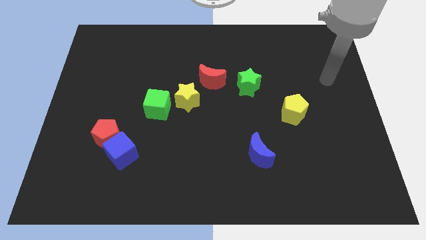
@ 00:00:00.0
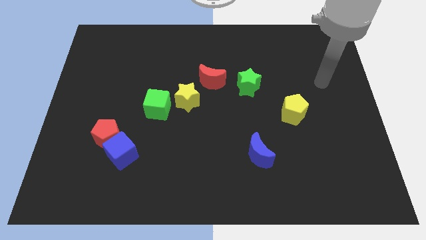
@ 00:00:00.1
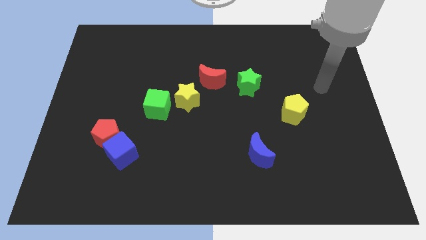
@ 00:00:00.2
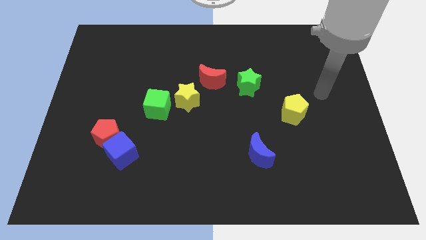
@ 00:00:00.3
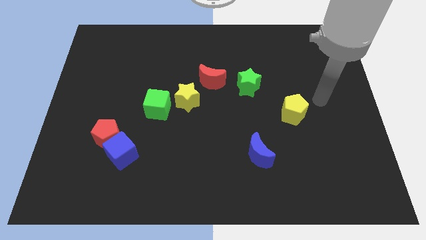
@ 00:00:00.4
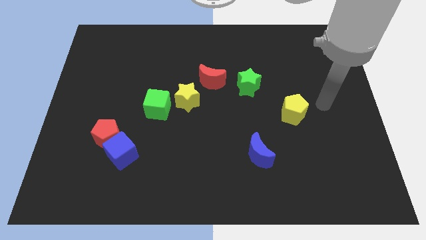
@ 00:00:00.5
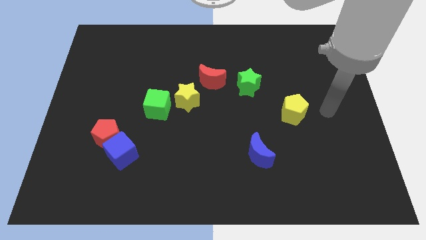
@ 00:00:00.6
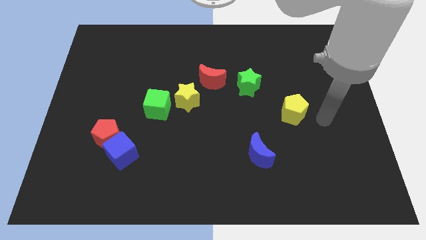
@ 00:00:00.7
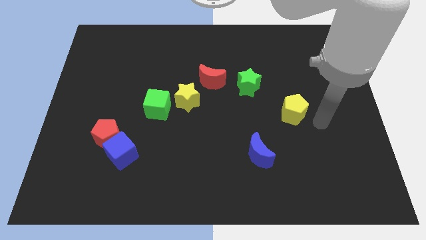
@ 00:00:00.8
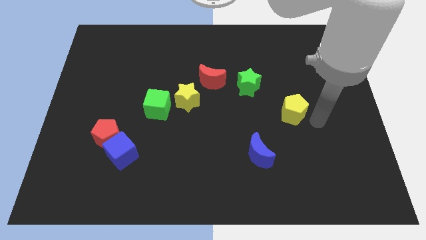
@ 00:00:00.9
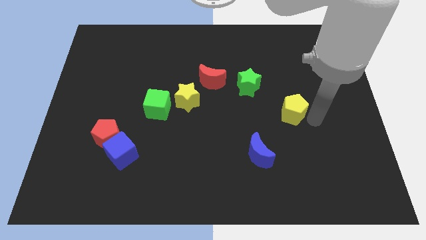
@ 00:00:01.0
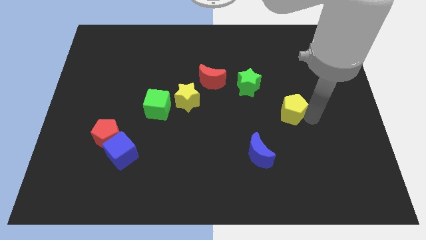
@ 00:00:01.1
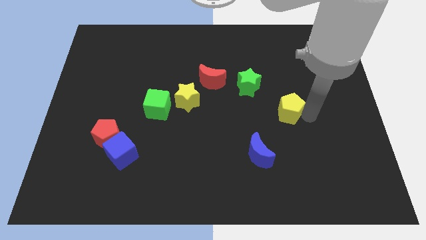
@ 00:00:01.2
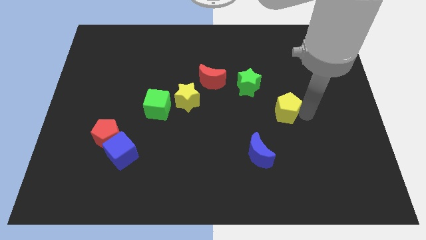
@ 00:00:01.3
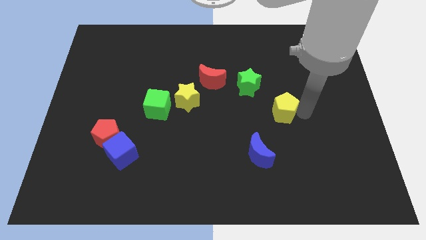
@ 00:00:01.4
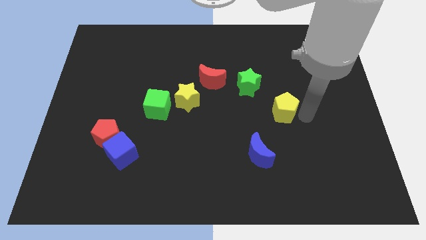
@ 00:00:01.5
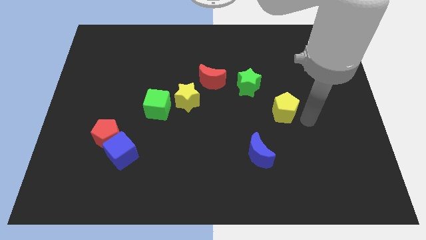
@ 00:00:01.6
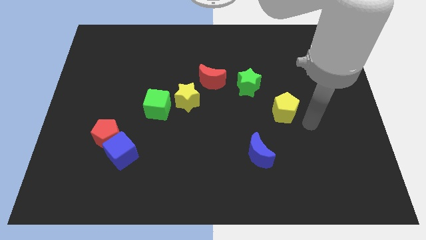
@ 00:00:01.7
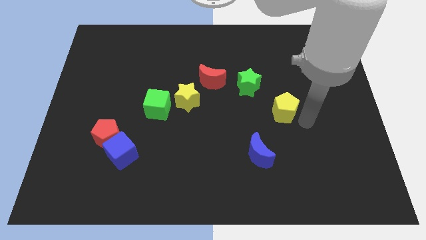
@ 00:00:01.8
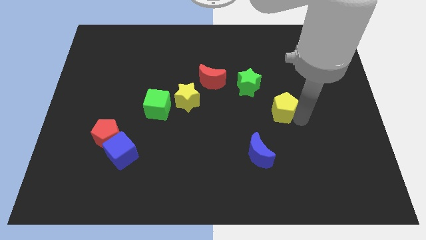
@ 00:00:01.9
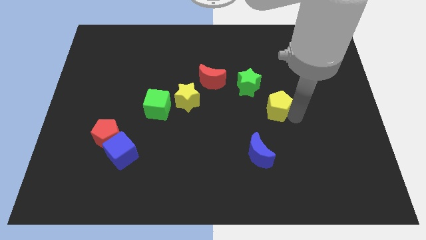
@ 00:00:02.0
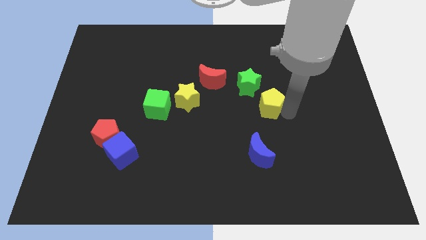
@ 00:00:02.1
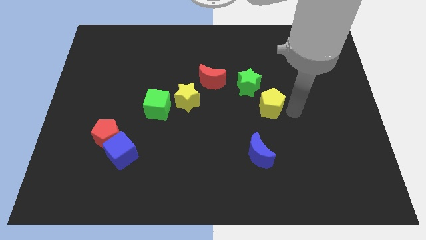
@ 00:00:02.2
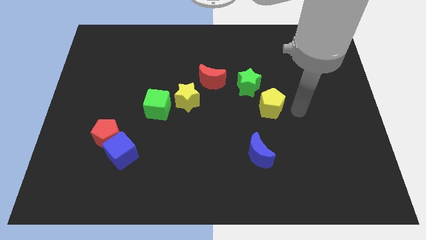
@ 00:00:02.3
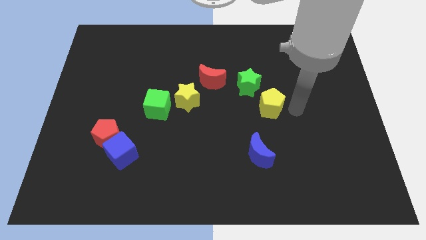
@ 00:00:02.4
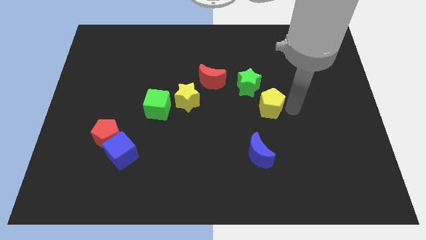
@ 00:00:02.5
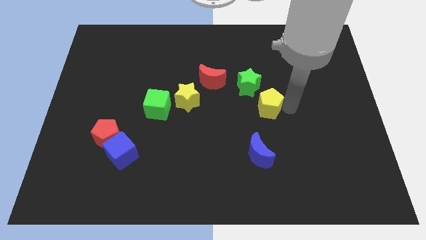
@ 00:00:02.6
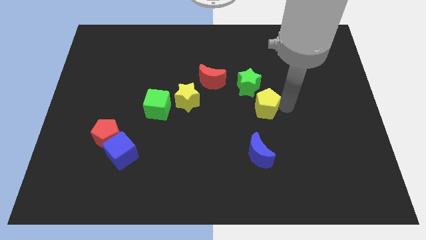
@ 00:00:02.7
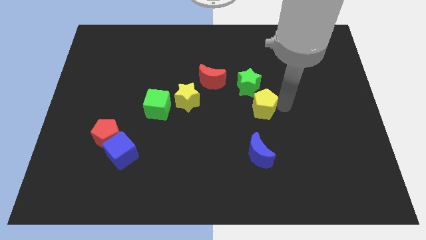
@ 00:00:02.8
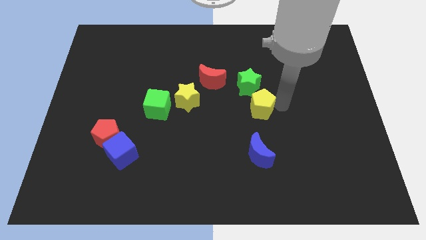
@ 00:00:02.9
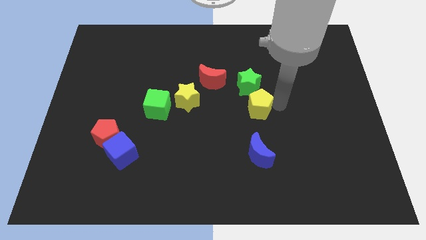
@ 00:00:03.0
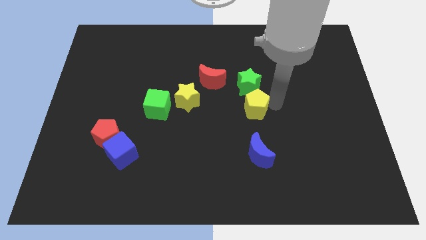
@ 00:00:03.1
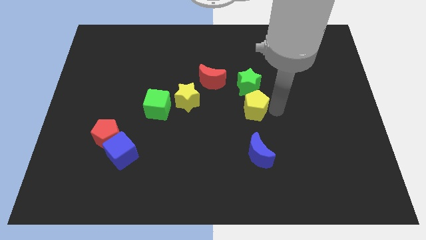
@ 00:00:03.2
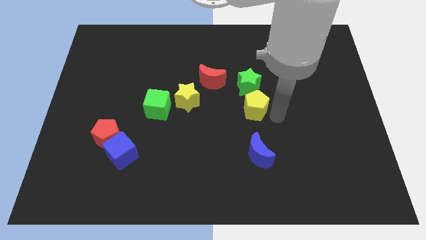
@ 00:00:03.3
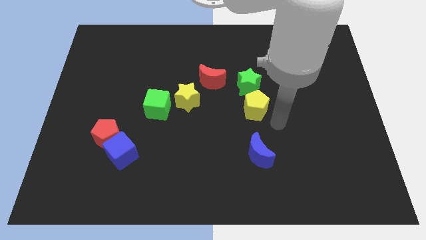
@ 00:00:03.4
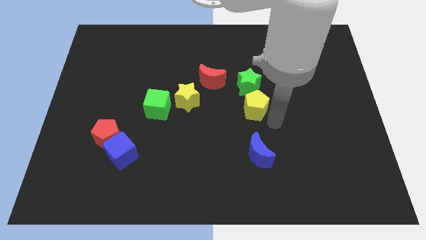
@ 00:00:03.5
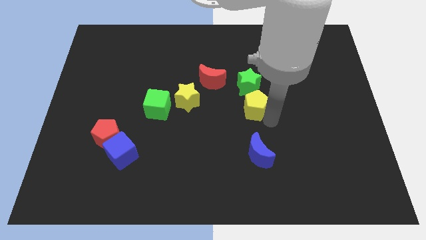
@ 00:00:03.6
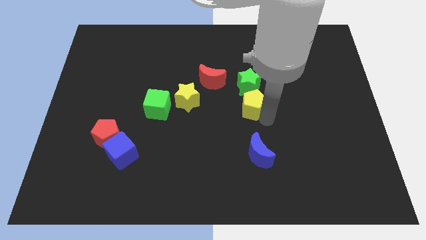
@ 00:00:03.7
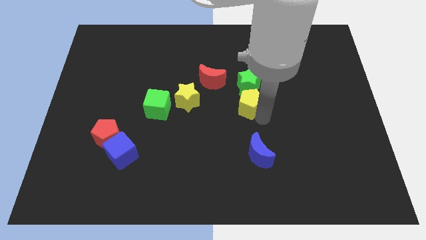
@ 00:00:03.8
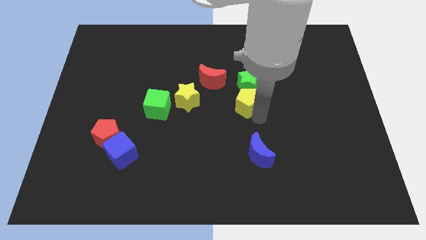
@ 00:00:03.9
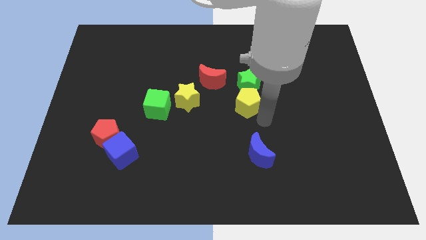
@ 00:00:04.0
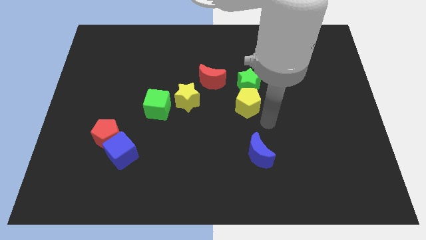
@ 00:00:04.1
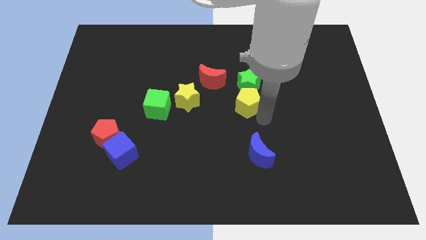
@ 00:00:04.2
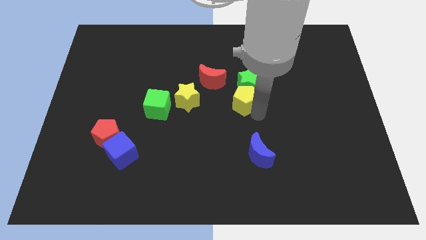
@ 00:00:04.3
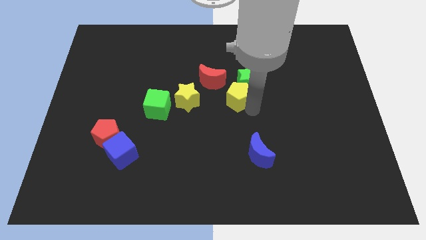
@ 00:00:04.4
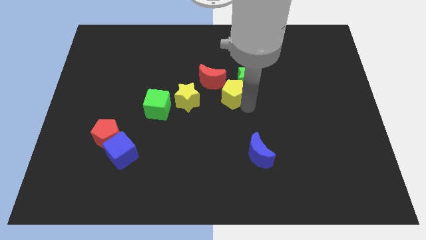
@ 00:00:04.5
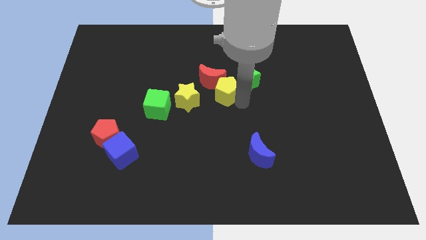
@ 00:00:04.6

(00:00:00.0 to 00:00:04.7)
put the yellow pentagon towards the red moon

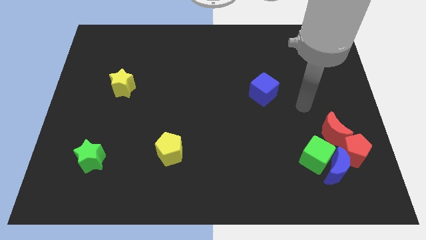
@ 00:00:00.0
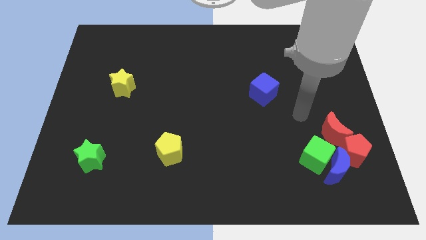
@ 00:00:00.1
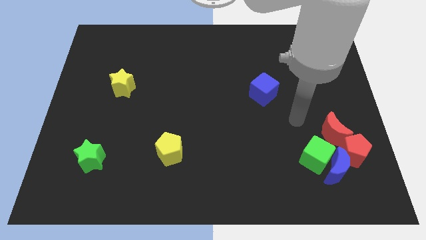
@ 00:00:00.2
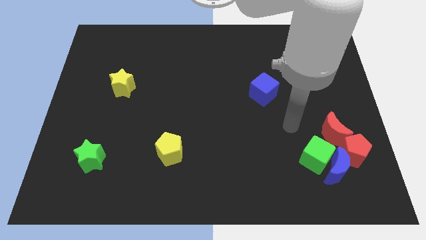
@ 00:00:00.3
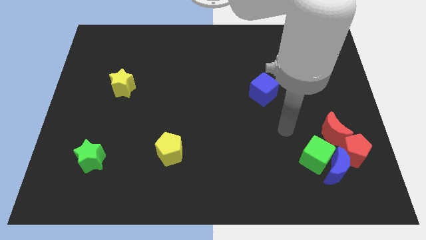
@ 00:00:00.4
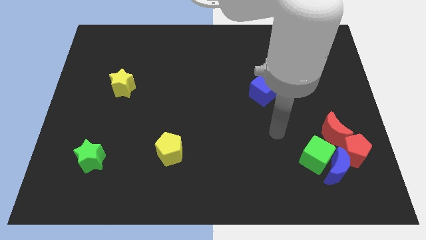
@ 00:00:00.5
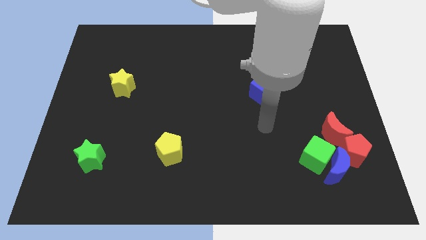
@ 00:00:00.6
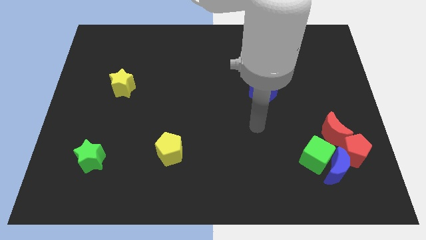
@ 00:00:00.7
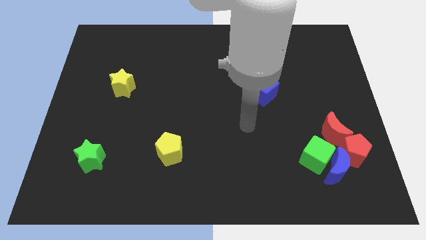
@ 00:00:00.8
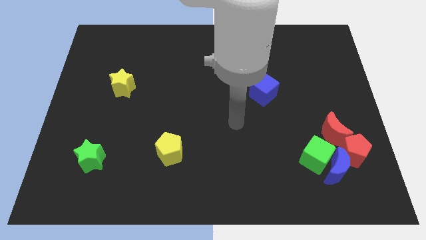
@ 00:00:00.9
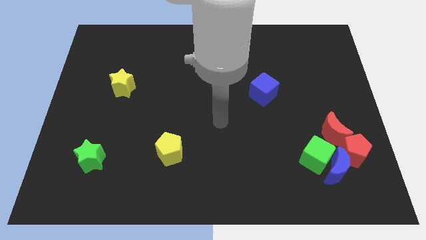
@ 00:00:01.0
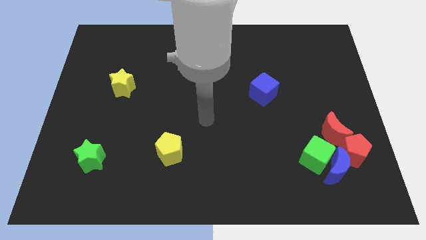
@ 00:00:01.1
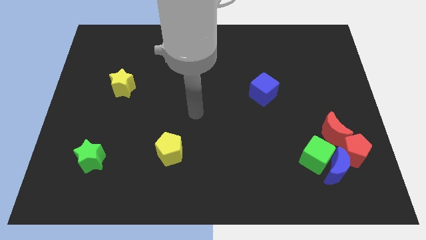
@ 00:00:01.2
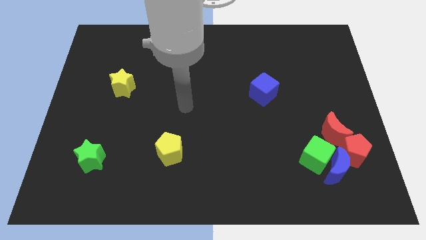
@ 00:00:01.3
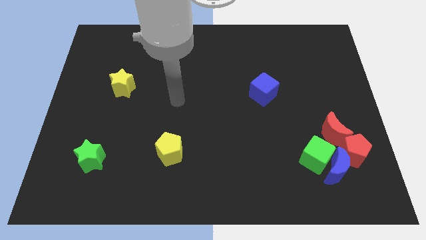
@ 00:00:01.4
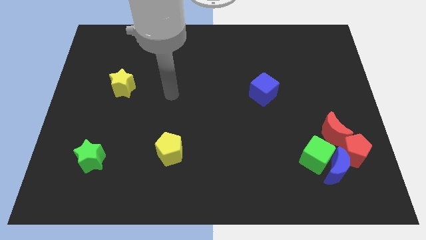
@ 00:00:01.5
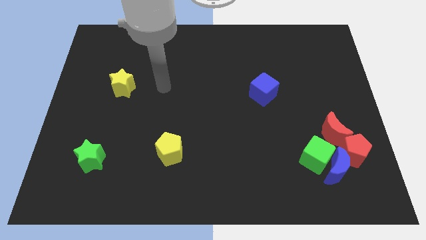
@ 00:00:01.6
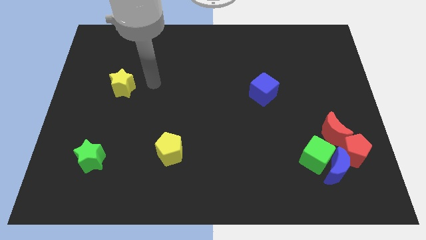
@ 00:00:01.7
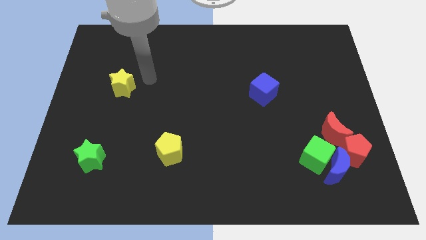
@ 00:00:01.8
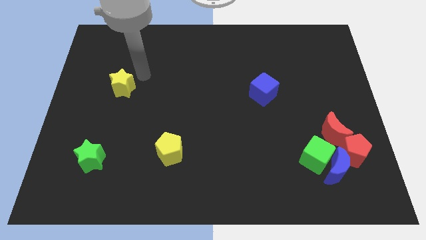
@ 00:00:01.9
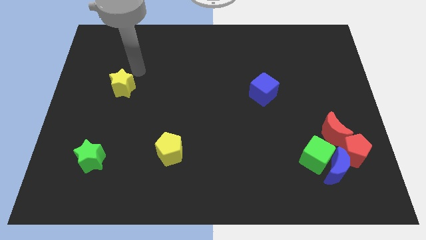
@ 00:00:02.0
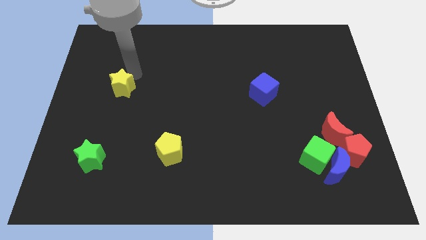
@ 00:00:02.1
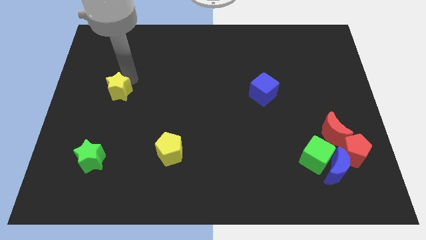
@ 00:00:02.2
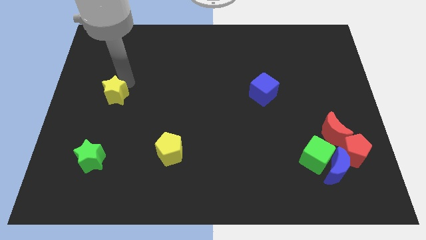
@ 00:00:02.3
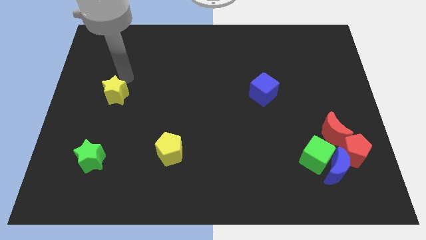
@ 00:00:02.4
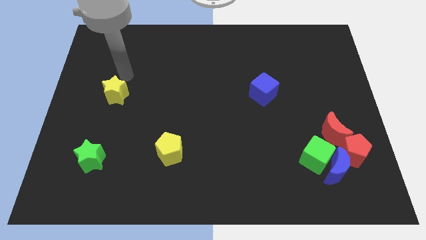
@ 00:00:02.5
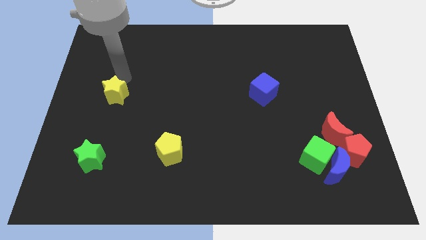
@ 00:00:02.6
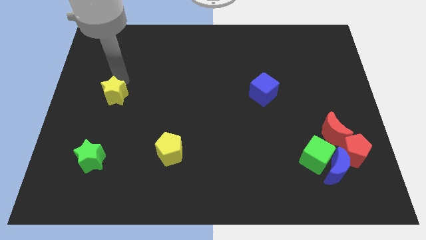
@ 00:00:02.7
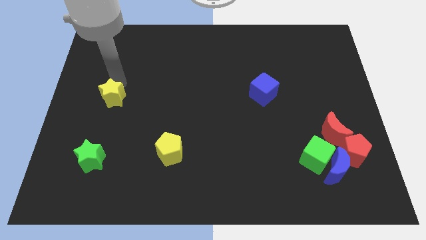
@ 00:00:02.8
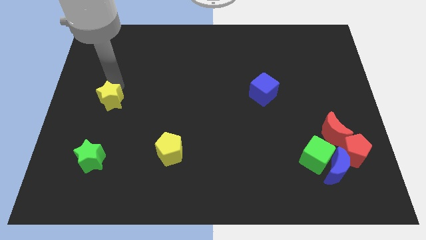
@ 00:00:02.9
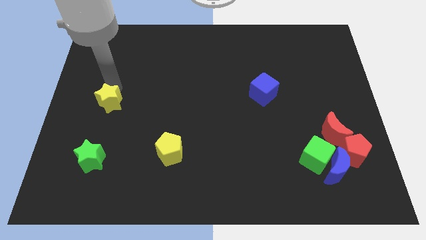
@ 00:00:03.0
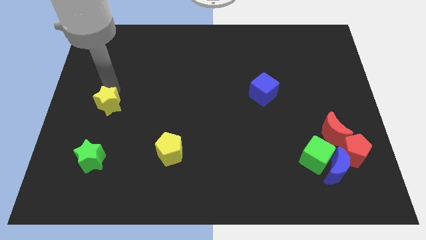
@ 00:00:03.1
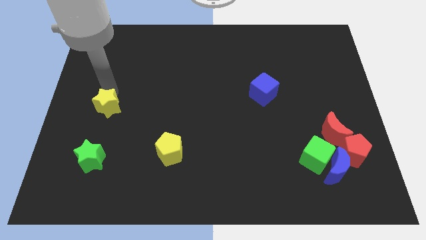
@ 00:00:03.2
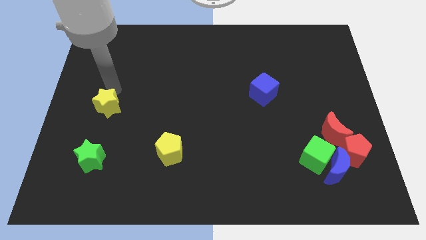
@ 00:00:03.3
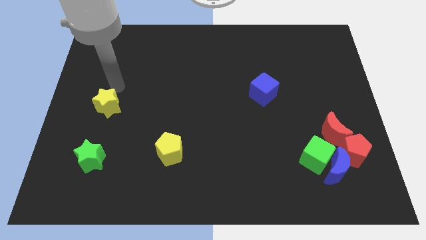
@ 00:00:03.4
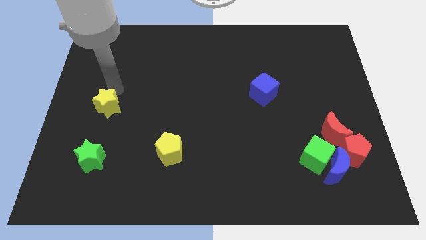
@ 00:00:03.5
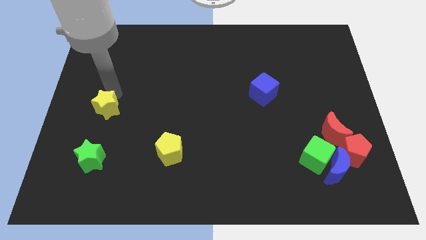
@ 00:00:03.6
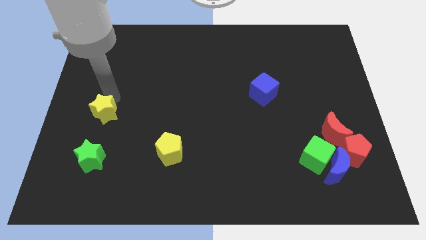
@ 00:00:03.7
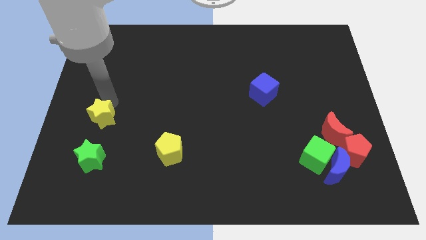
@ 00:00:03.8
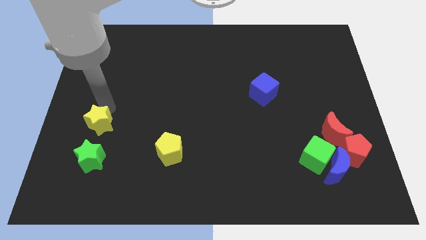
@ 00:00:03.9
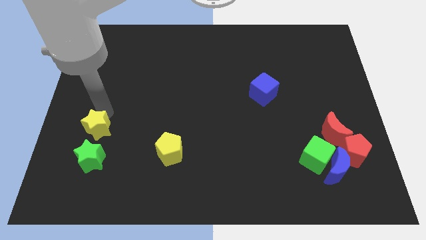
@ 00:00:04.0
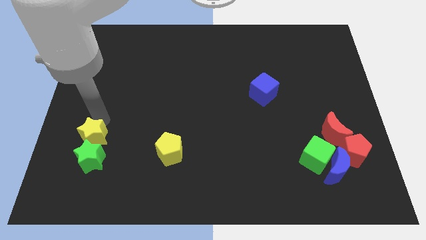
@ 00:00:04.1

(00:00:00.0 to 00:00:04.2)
slide the yellow star towards the green star
